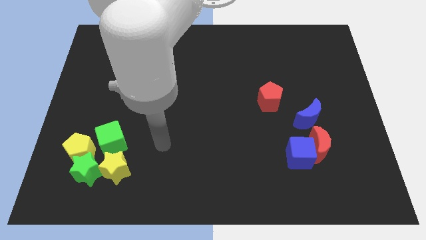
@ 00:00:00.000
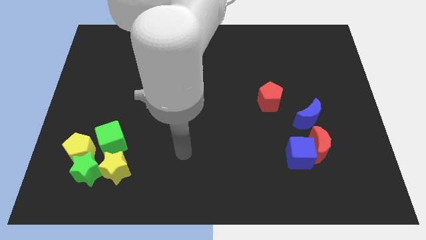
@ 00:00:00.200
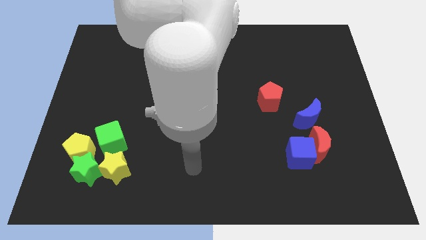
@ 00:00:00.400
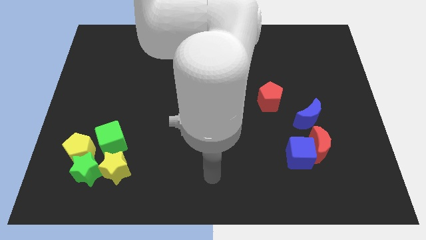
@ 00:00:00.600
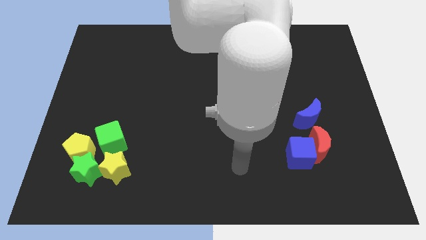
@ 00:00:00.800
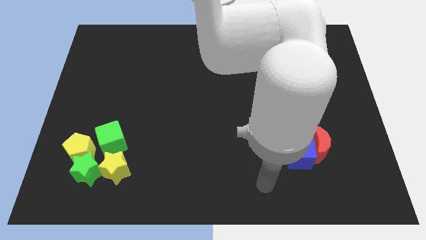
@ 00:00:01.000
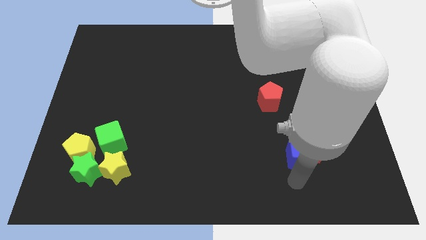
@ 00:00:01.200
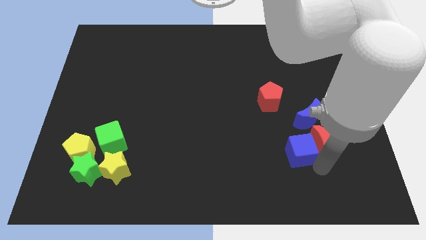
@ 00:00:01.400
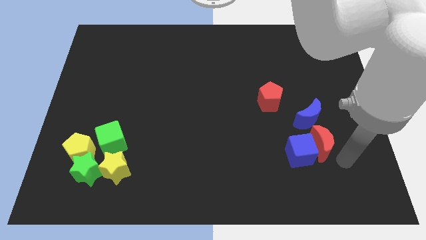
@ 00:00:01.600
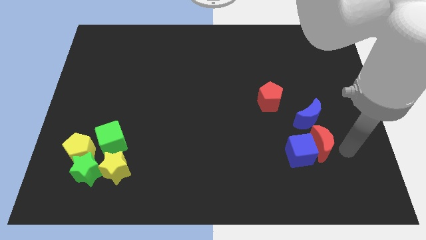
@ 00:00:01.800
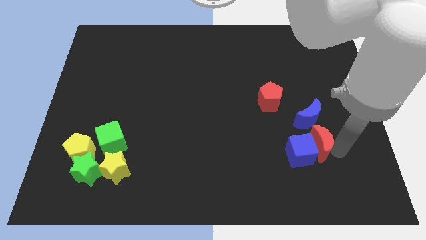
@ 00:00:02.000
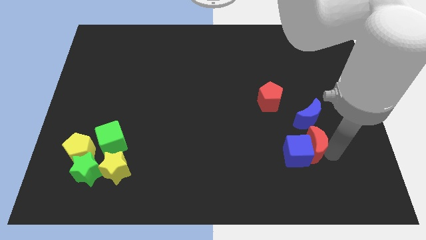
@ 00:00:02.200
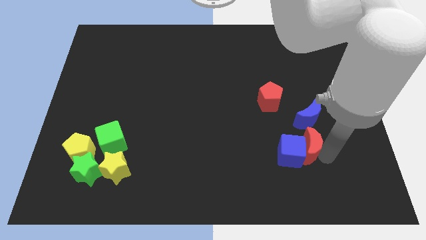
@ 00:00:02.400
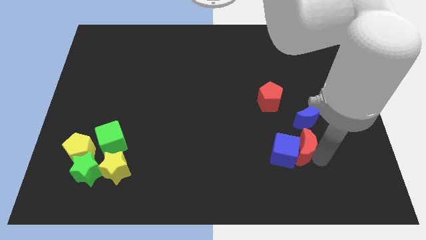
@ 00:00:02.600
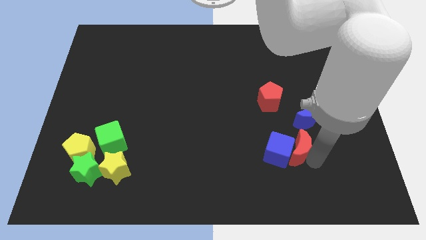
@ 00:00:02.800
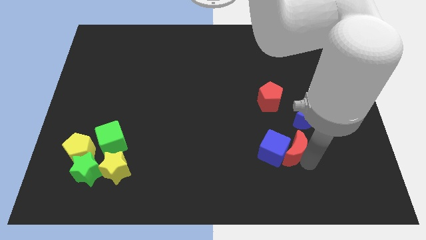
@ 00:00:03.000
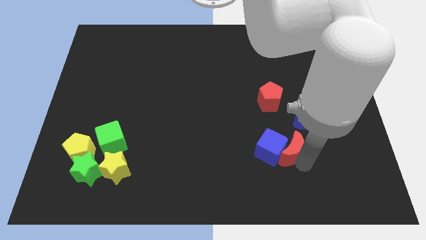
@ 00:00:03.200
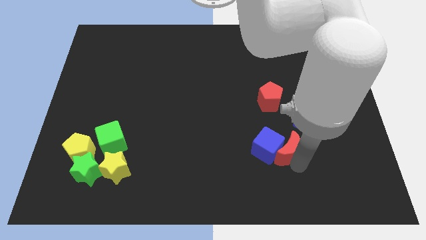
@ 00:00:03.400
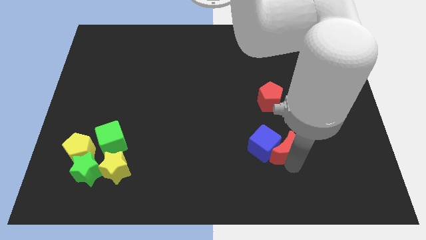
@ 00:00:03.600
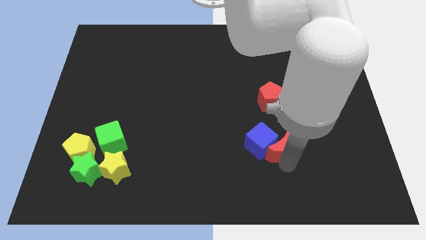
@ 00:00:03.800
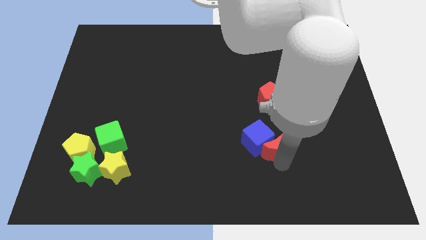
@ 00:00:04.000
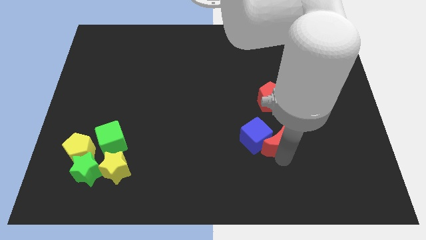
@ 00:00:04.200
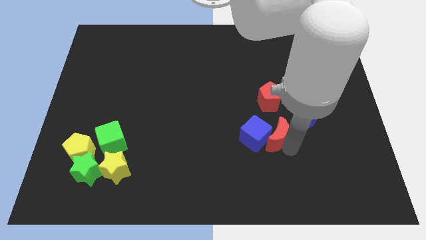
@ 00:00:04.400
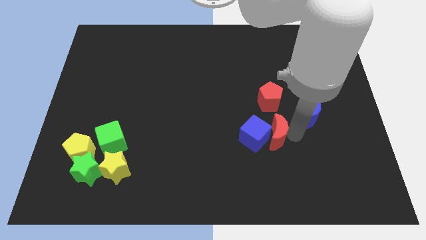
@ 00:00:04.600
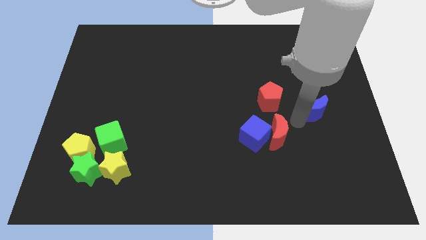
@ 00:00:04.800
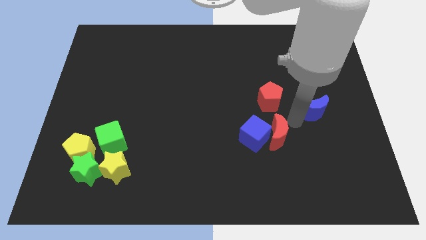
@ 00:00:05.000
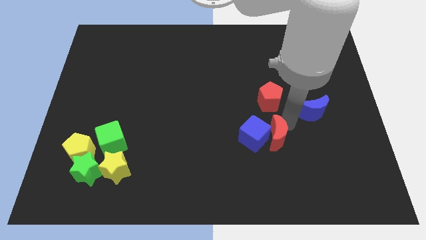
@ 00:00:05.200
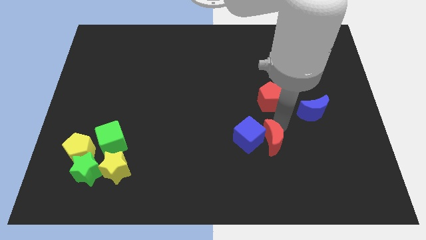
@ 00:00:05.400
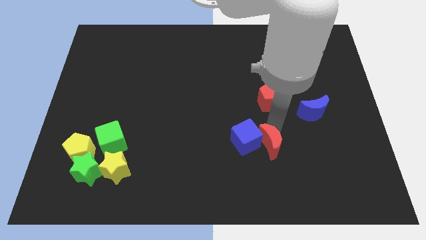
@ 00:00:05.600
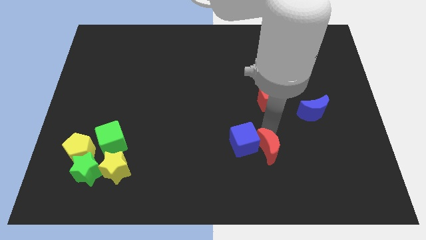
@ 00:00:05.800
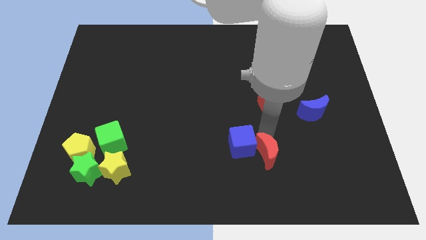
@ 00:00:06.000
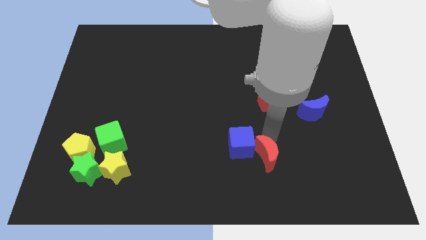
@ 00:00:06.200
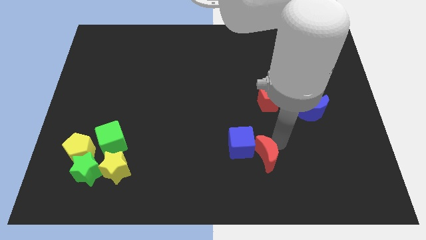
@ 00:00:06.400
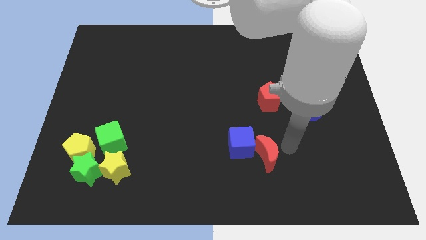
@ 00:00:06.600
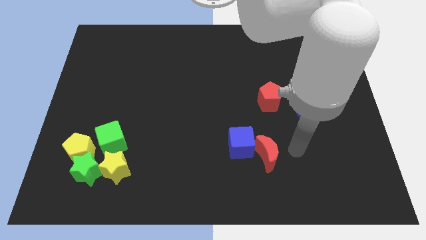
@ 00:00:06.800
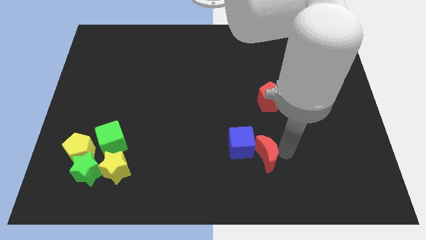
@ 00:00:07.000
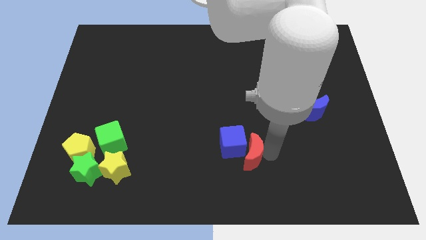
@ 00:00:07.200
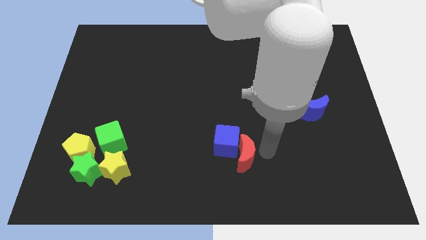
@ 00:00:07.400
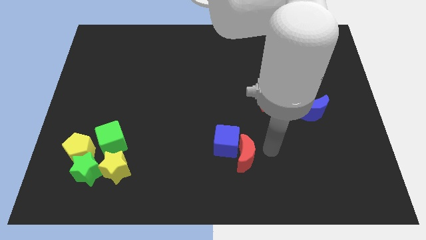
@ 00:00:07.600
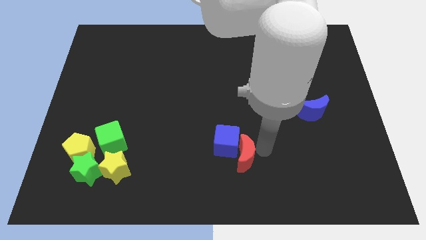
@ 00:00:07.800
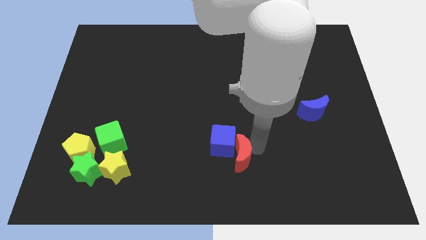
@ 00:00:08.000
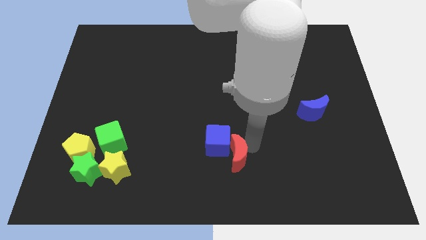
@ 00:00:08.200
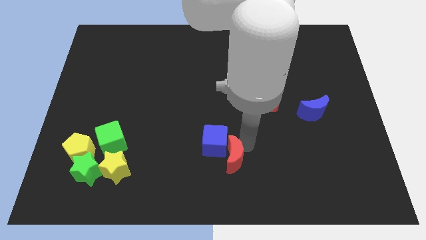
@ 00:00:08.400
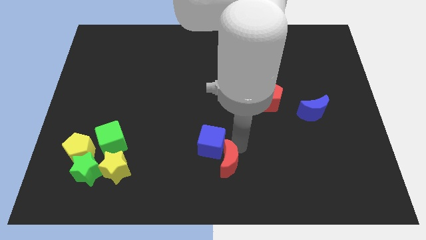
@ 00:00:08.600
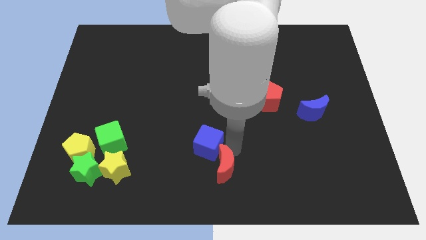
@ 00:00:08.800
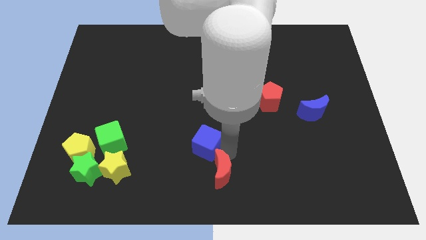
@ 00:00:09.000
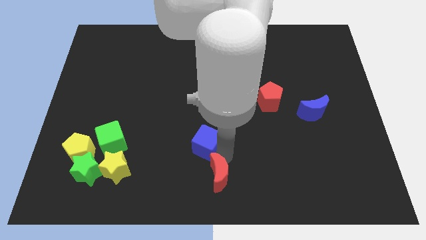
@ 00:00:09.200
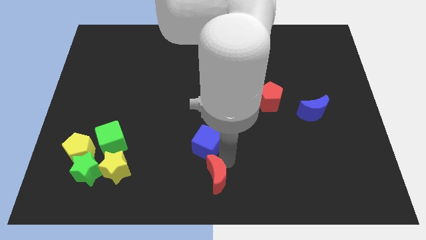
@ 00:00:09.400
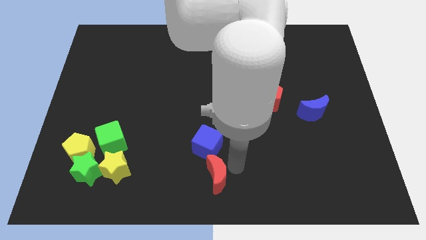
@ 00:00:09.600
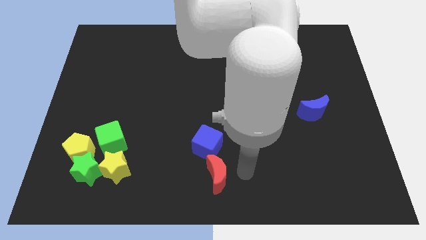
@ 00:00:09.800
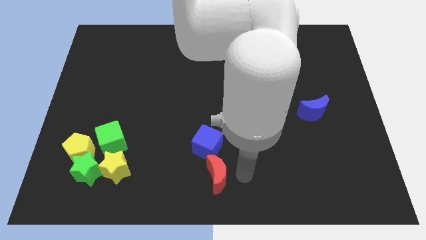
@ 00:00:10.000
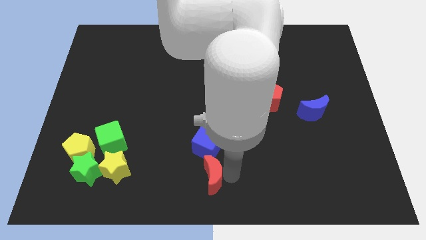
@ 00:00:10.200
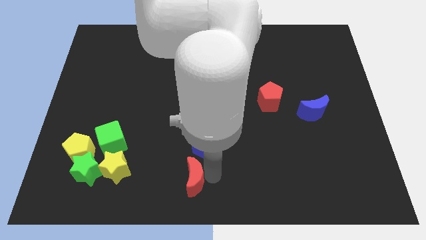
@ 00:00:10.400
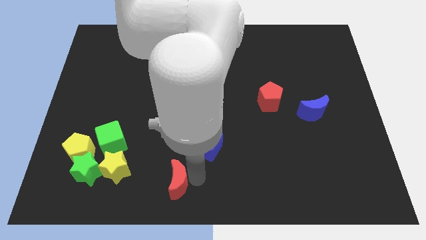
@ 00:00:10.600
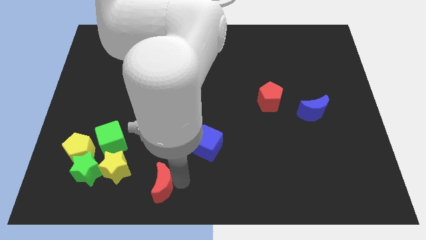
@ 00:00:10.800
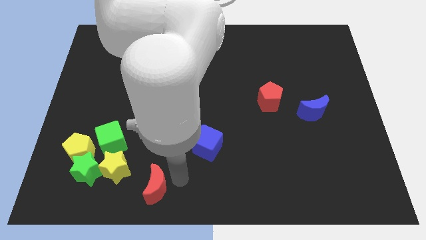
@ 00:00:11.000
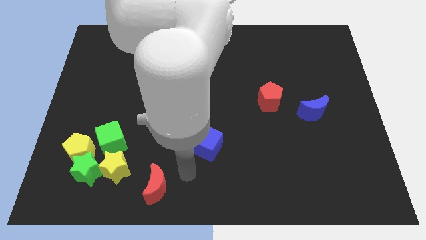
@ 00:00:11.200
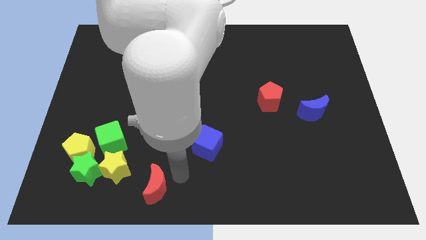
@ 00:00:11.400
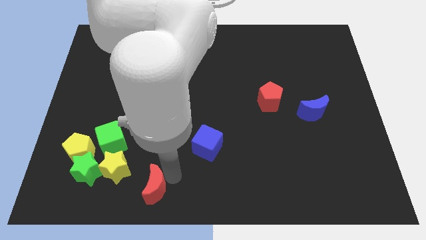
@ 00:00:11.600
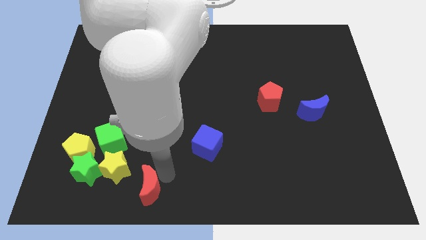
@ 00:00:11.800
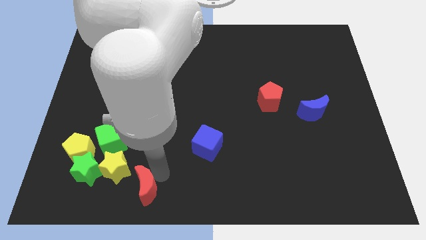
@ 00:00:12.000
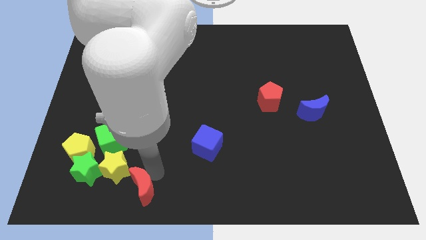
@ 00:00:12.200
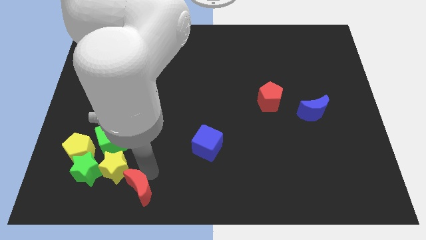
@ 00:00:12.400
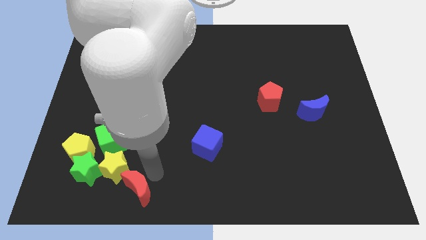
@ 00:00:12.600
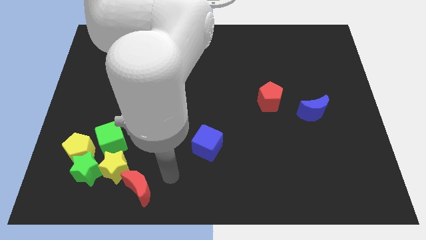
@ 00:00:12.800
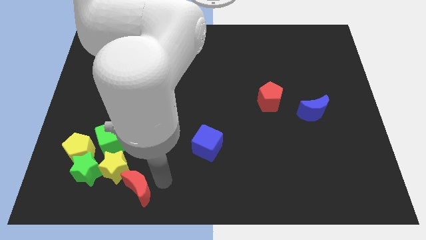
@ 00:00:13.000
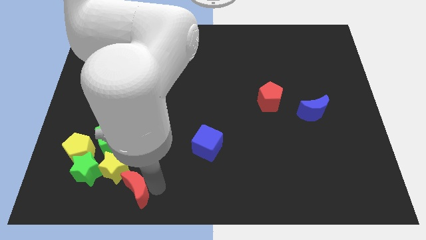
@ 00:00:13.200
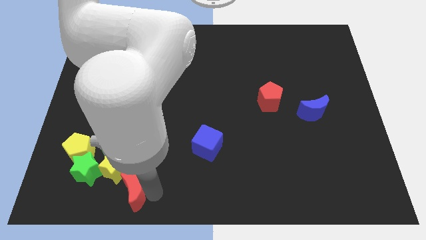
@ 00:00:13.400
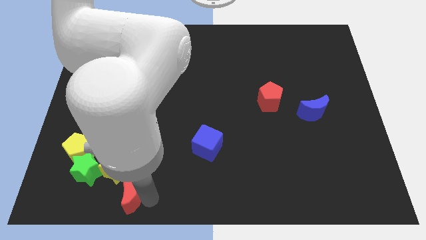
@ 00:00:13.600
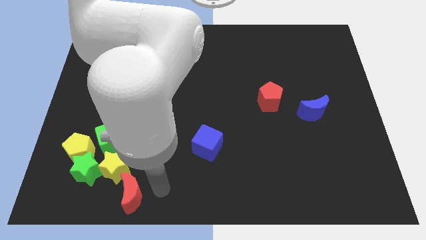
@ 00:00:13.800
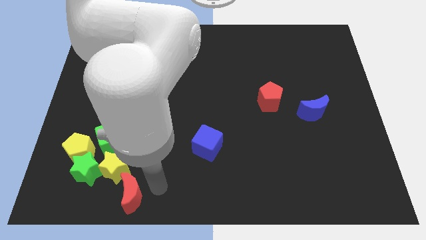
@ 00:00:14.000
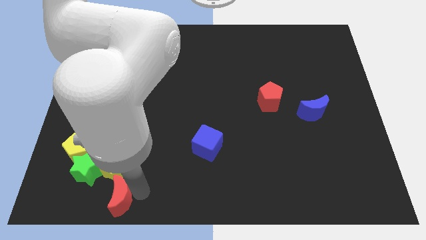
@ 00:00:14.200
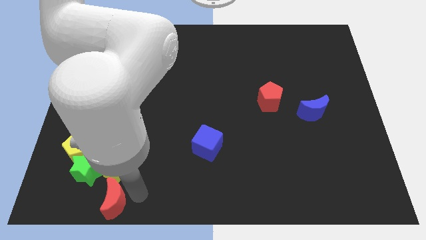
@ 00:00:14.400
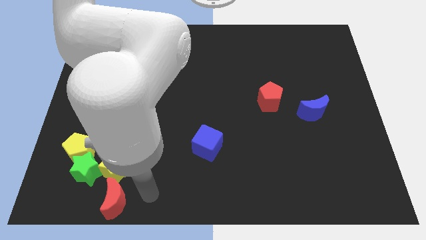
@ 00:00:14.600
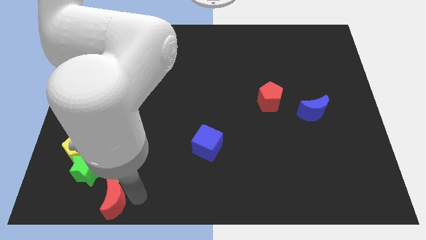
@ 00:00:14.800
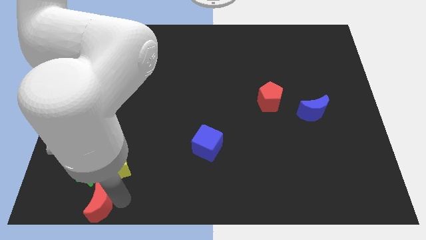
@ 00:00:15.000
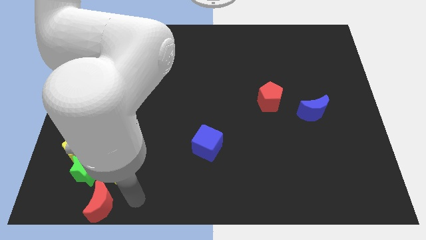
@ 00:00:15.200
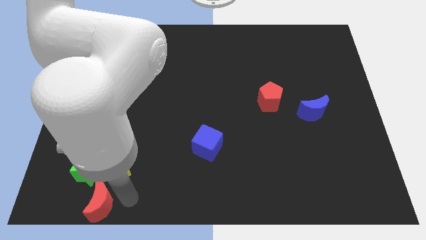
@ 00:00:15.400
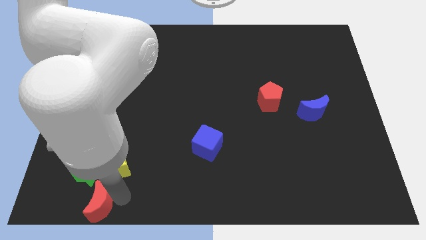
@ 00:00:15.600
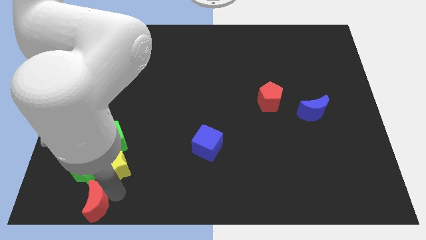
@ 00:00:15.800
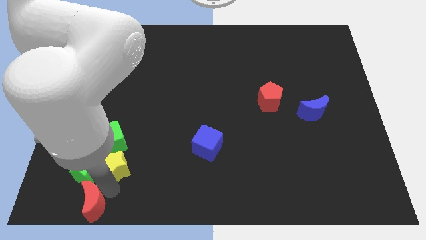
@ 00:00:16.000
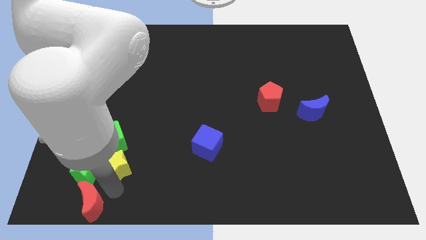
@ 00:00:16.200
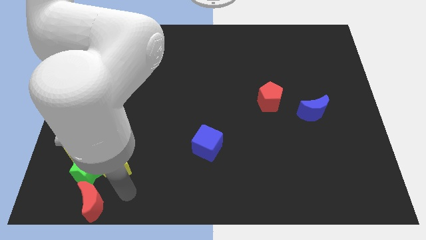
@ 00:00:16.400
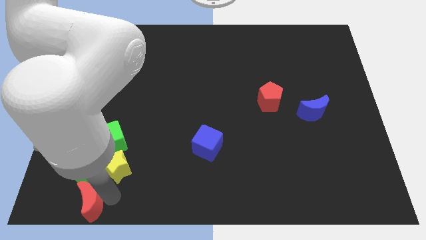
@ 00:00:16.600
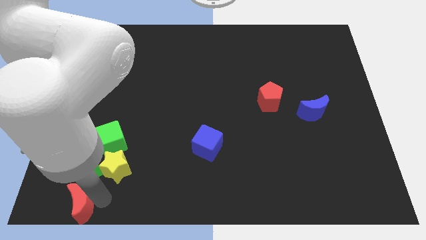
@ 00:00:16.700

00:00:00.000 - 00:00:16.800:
move the red moon to the lower left corner
